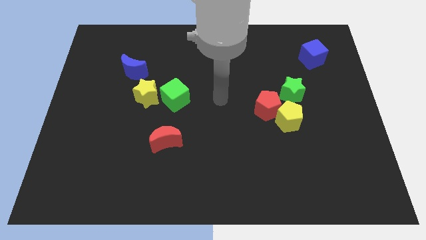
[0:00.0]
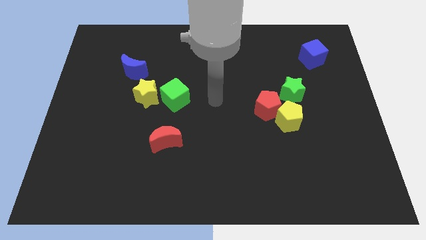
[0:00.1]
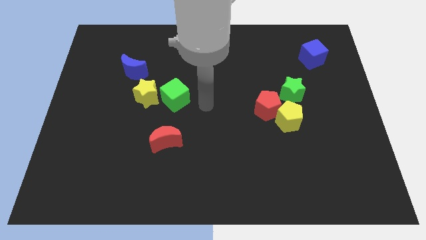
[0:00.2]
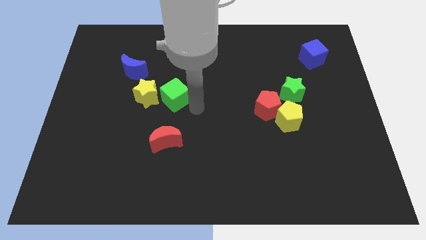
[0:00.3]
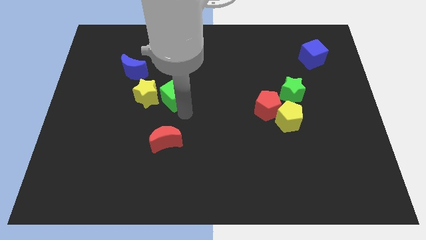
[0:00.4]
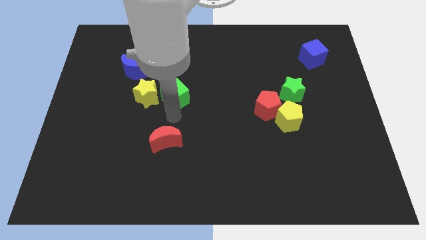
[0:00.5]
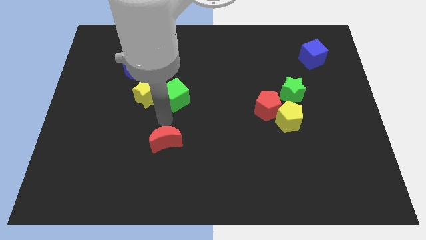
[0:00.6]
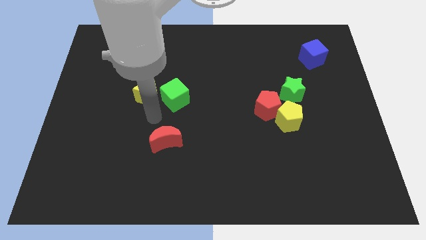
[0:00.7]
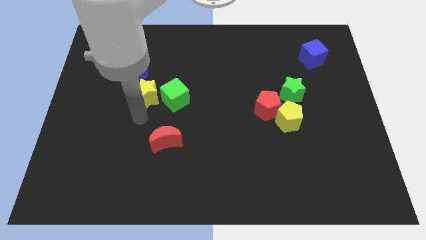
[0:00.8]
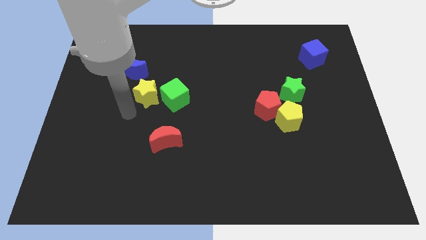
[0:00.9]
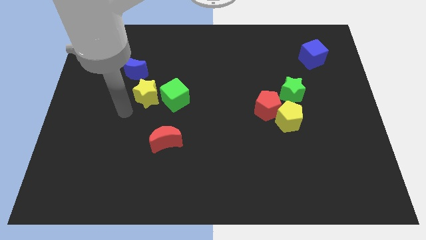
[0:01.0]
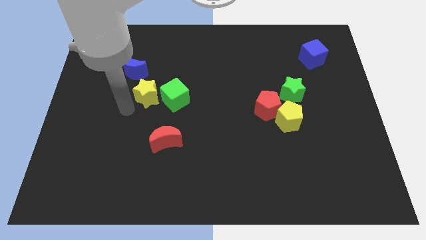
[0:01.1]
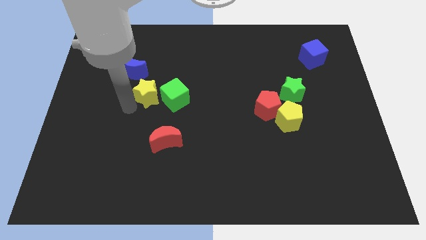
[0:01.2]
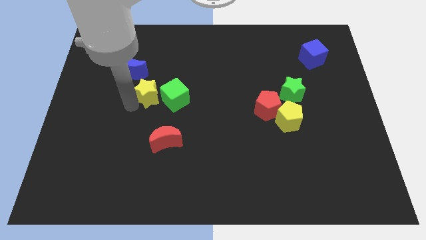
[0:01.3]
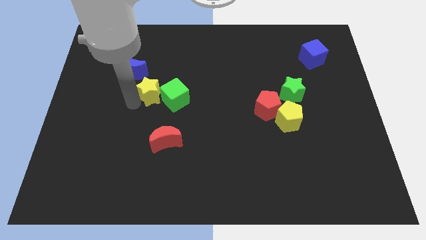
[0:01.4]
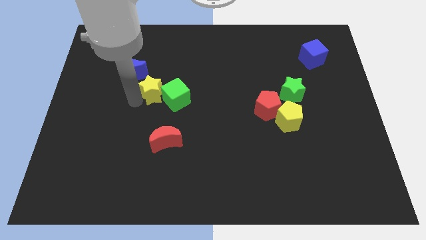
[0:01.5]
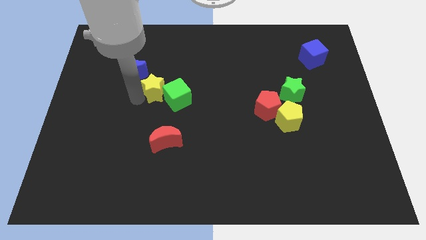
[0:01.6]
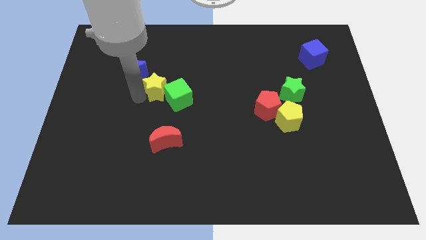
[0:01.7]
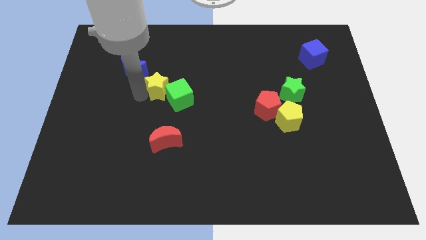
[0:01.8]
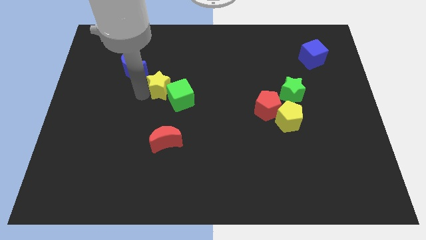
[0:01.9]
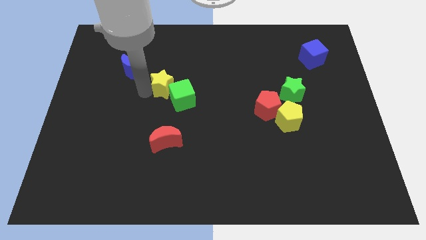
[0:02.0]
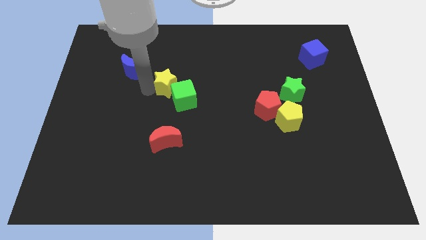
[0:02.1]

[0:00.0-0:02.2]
move the yellow star to the middle

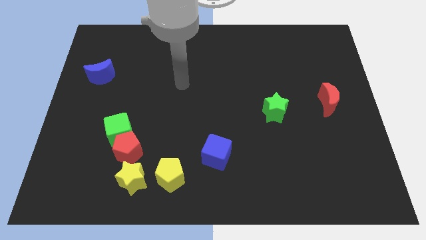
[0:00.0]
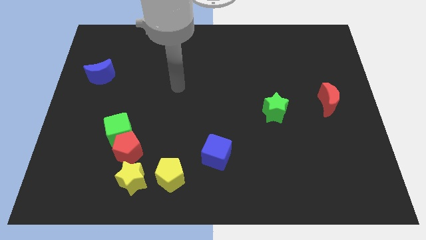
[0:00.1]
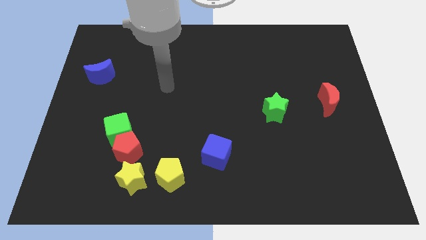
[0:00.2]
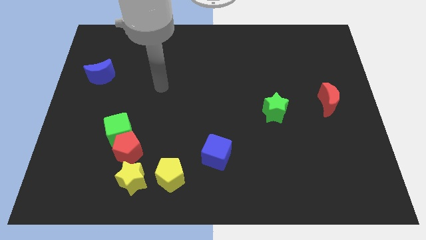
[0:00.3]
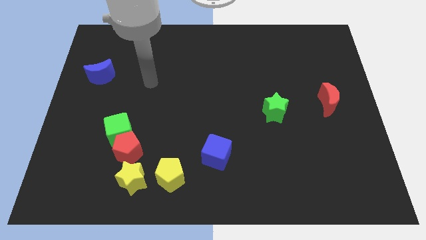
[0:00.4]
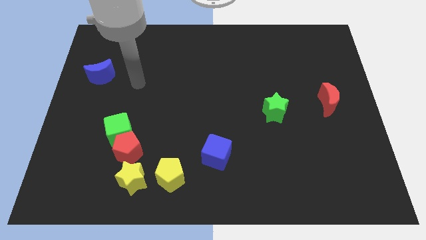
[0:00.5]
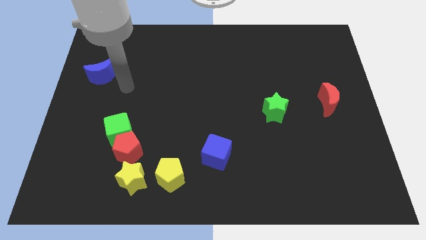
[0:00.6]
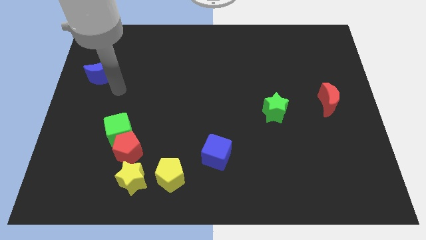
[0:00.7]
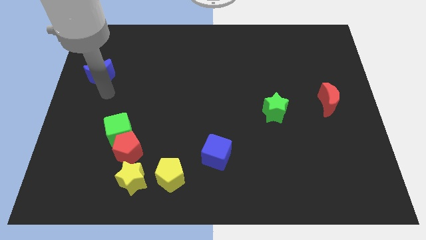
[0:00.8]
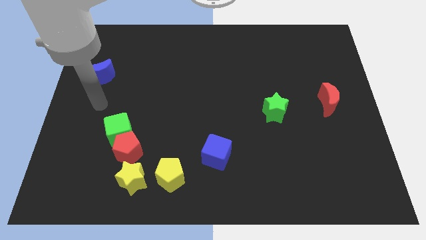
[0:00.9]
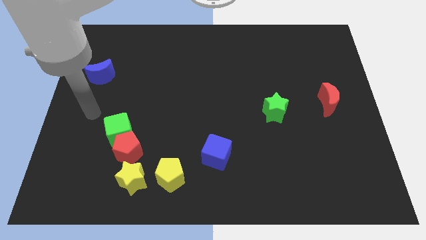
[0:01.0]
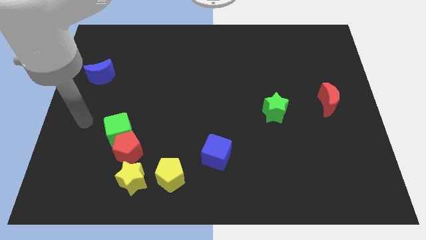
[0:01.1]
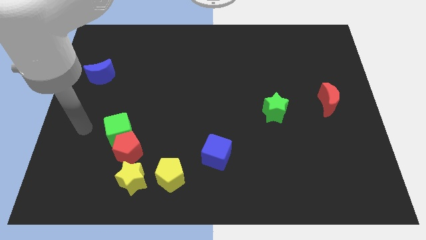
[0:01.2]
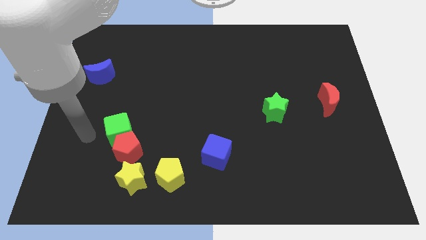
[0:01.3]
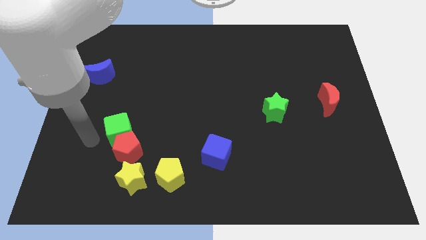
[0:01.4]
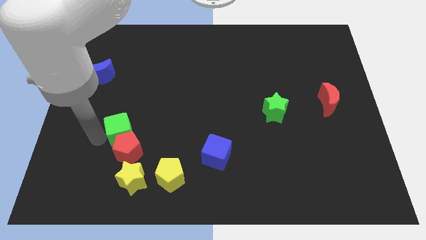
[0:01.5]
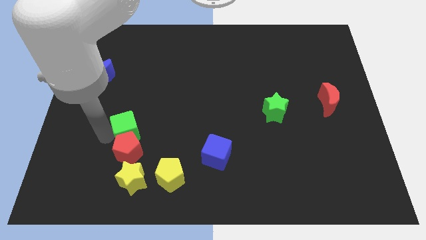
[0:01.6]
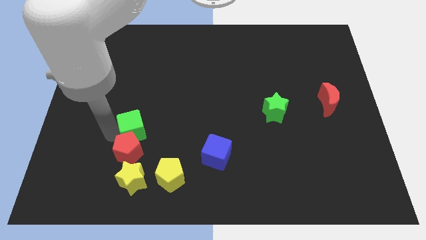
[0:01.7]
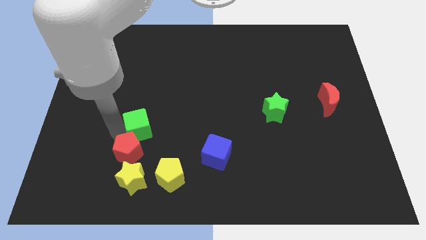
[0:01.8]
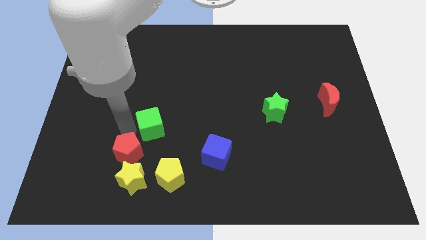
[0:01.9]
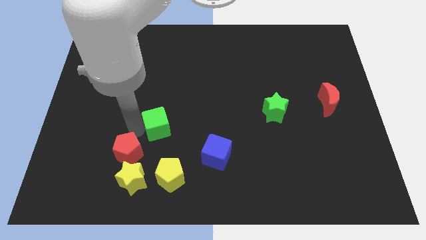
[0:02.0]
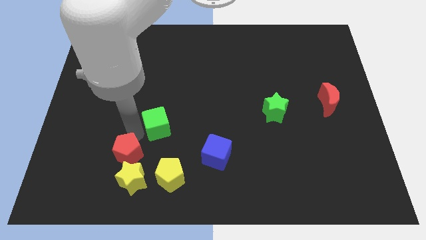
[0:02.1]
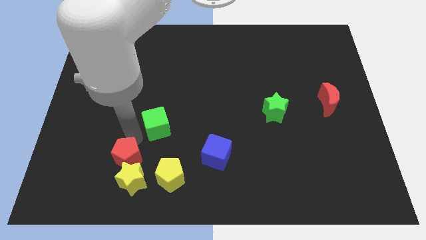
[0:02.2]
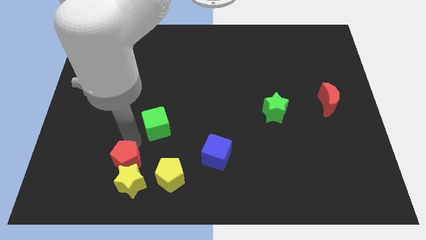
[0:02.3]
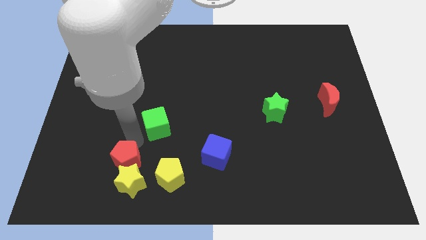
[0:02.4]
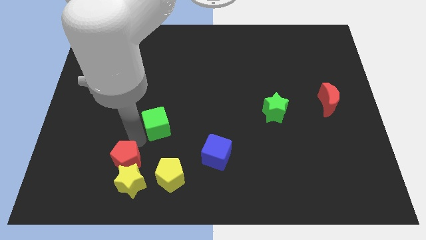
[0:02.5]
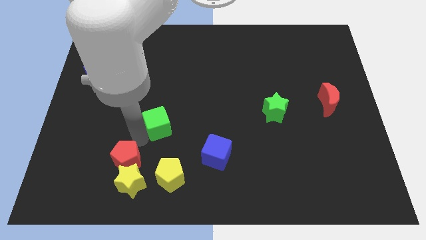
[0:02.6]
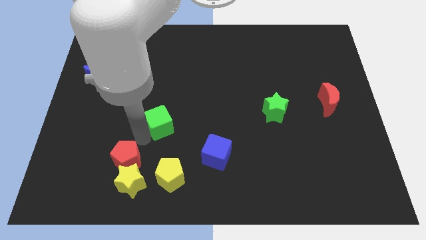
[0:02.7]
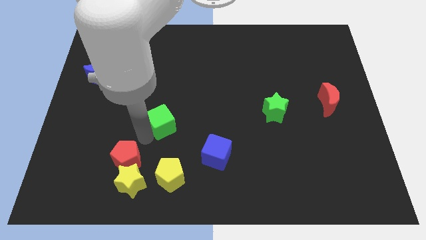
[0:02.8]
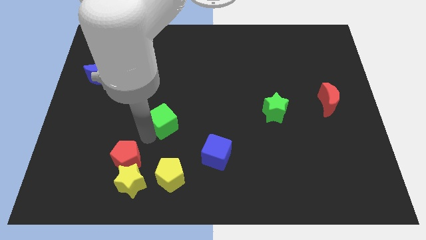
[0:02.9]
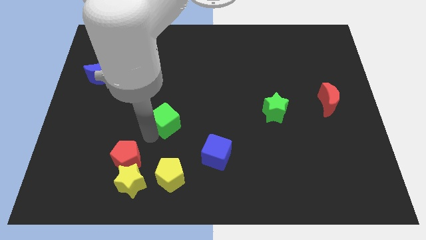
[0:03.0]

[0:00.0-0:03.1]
put the green cube to the center

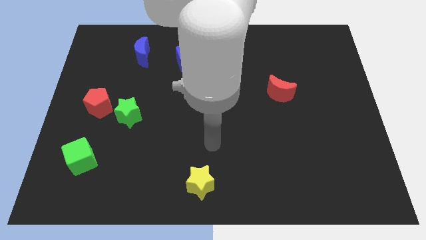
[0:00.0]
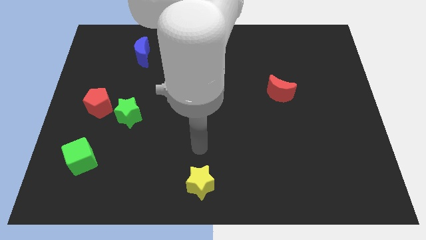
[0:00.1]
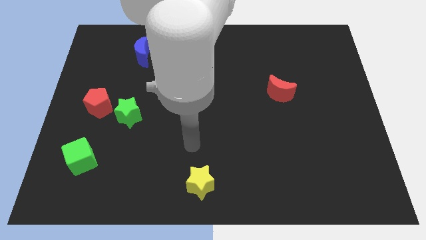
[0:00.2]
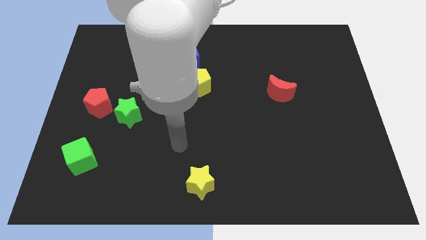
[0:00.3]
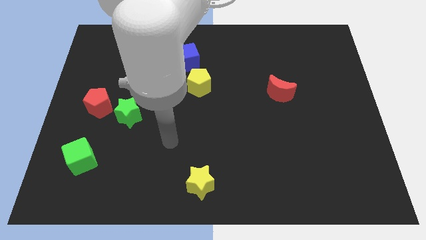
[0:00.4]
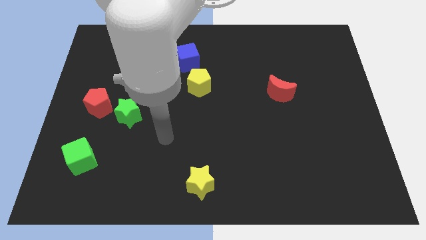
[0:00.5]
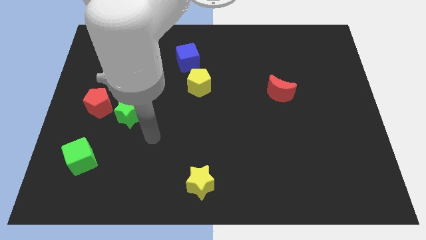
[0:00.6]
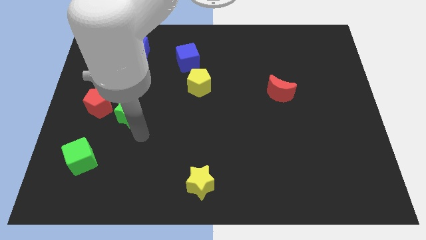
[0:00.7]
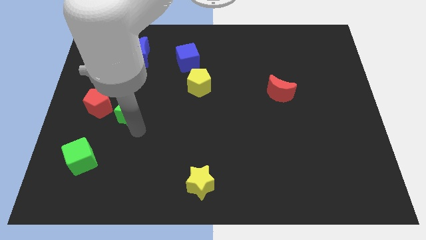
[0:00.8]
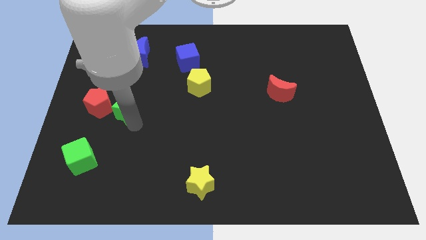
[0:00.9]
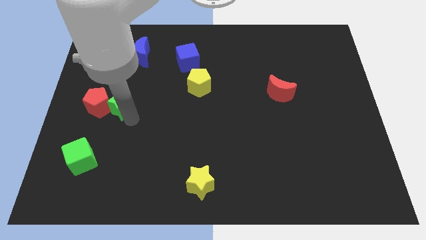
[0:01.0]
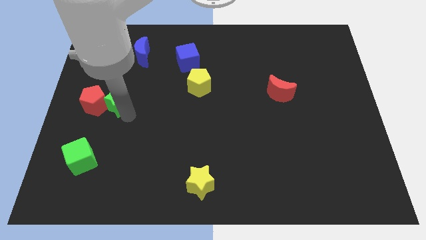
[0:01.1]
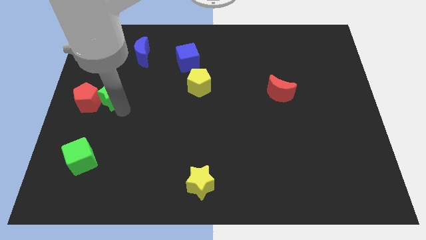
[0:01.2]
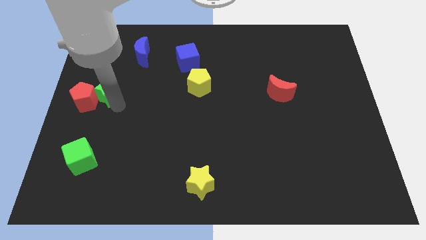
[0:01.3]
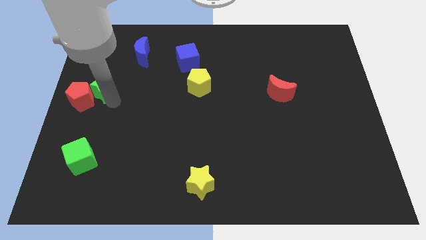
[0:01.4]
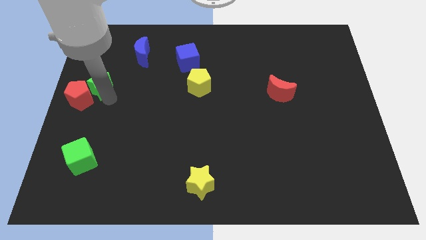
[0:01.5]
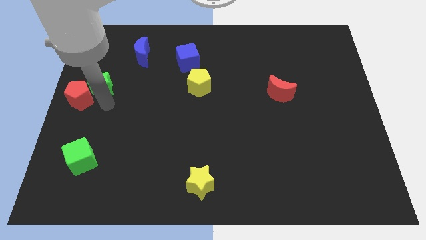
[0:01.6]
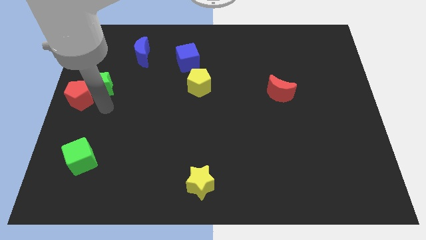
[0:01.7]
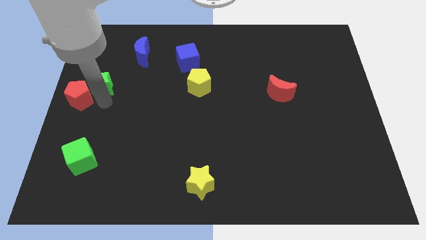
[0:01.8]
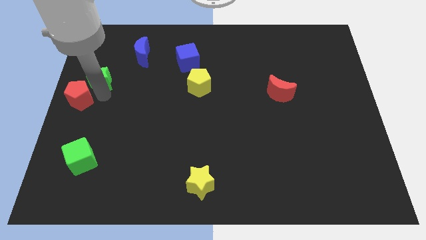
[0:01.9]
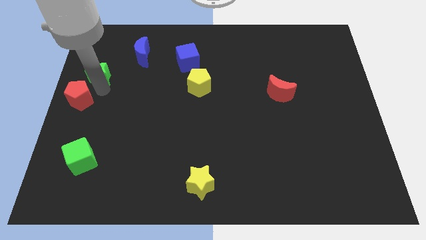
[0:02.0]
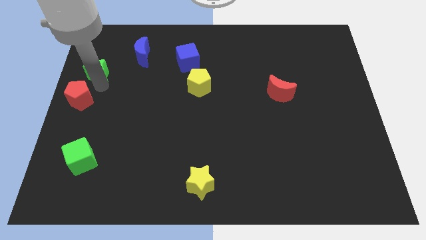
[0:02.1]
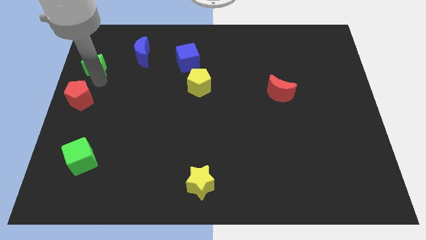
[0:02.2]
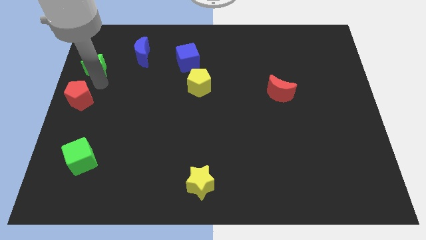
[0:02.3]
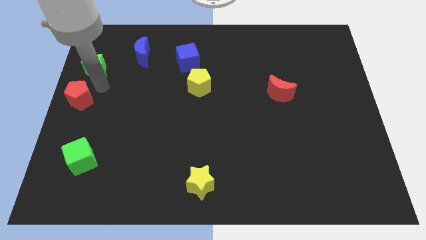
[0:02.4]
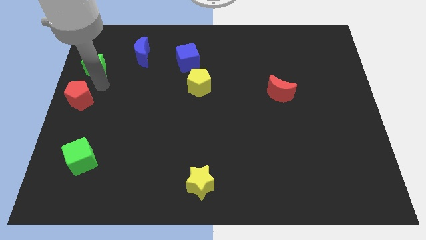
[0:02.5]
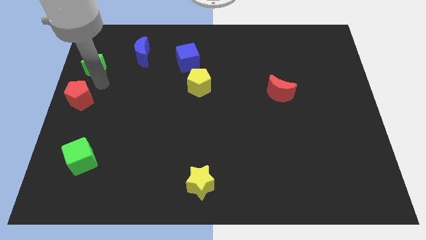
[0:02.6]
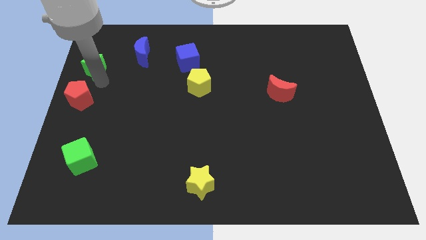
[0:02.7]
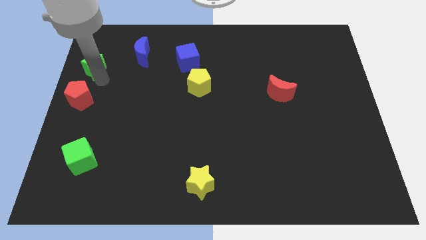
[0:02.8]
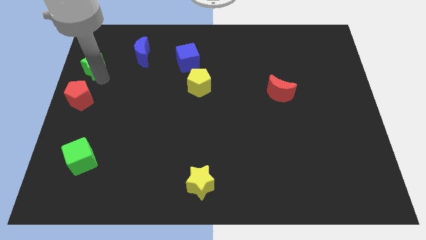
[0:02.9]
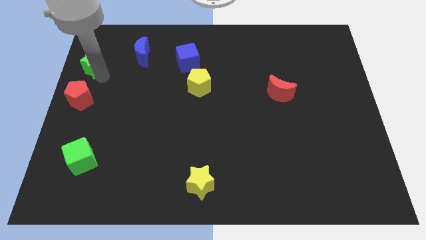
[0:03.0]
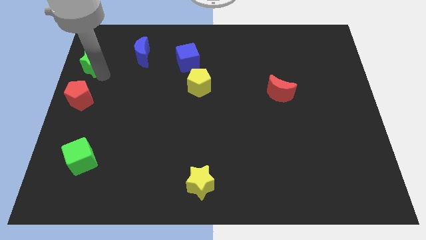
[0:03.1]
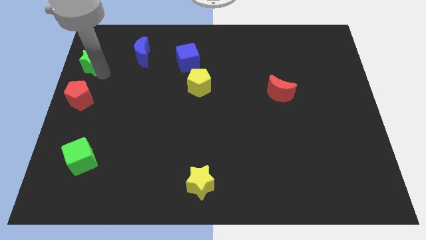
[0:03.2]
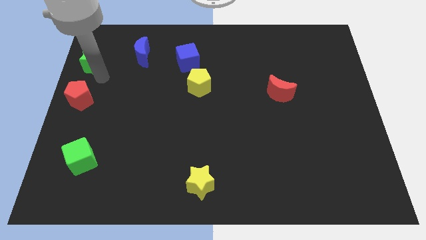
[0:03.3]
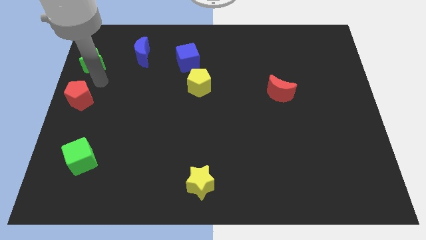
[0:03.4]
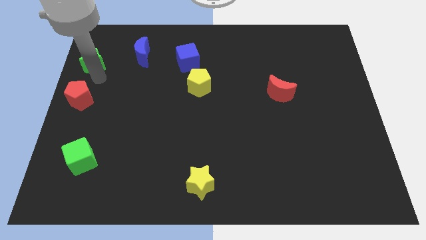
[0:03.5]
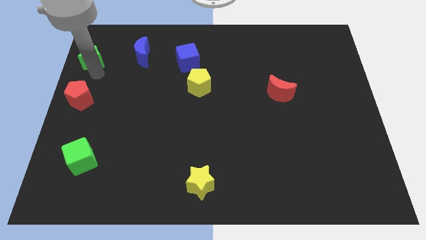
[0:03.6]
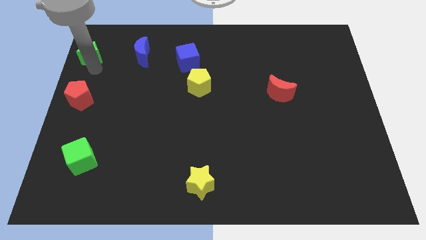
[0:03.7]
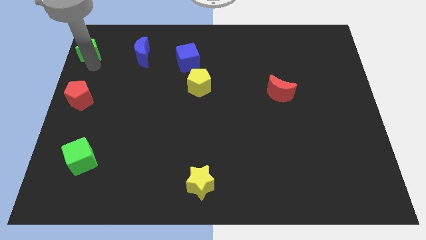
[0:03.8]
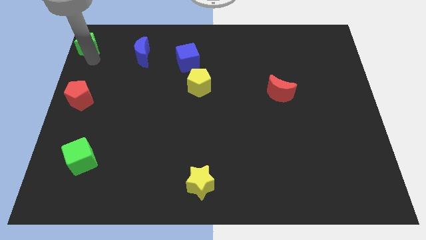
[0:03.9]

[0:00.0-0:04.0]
put the green star to the upper left corner
